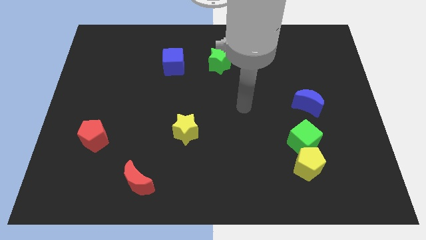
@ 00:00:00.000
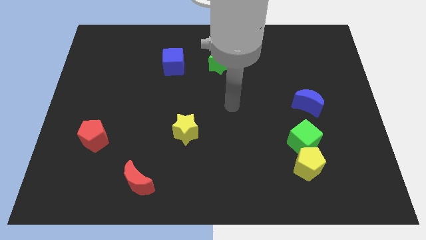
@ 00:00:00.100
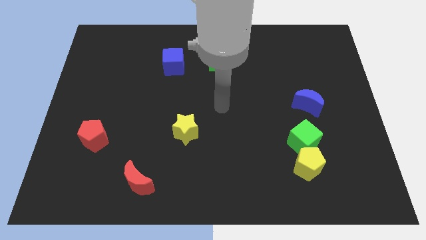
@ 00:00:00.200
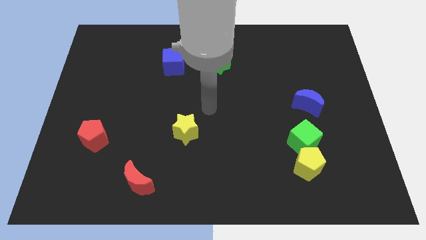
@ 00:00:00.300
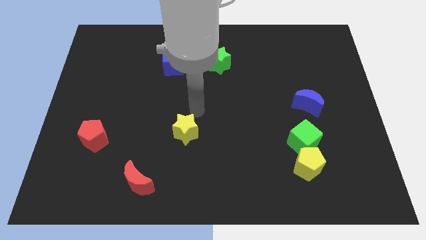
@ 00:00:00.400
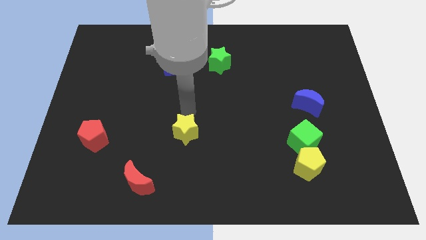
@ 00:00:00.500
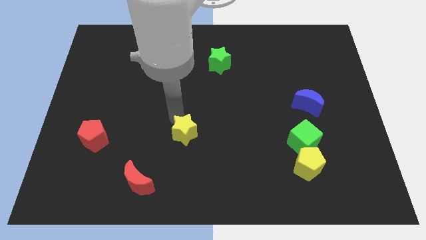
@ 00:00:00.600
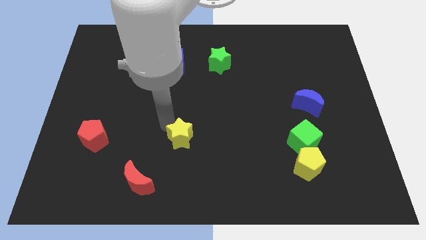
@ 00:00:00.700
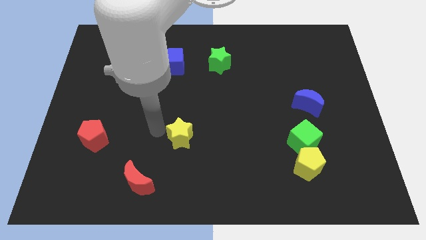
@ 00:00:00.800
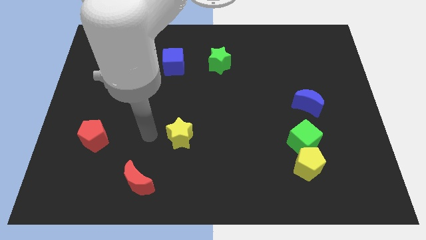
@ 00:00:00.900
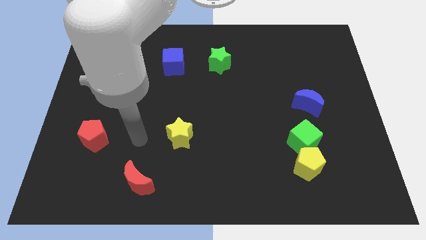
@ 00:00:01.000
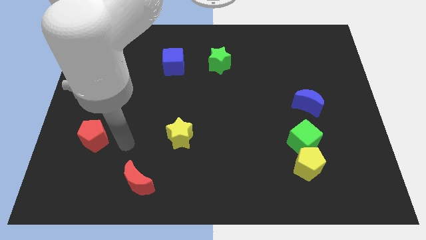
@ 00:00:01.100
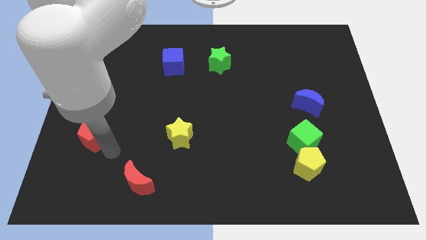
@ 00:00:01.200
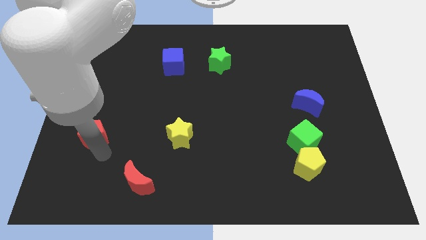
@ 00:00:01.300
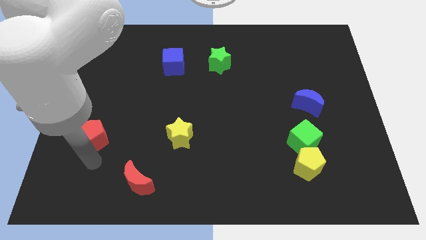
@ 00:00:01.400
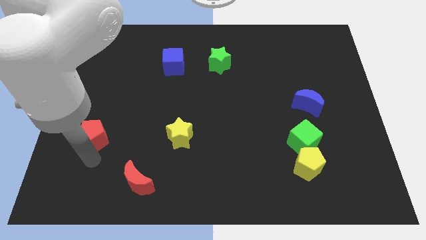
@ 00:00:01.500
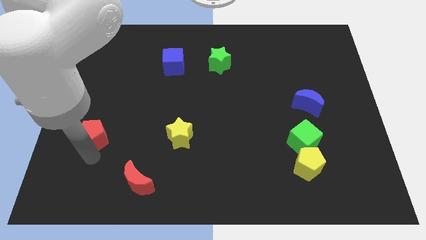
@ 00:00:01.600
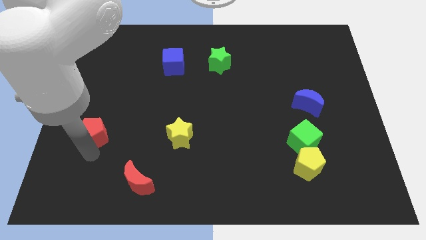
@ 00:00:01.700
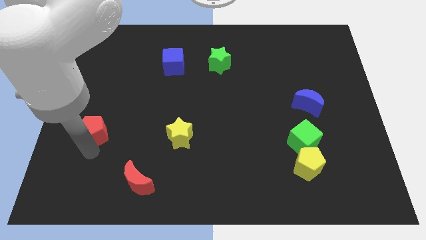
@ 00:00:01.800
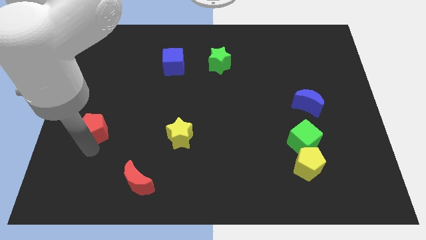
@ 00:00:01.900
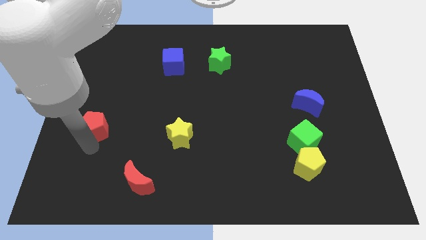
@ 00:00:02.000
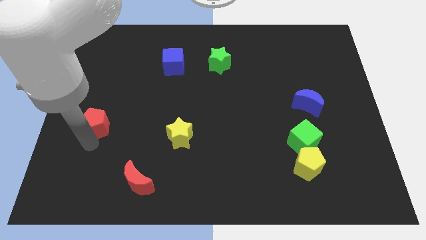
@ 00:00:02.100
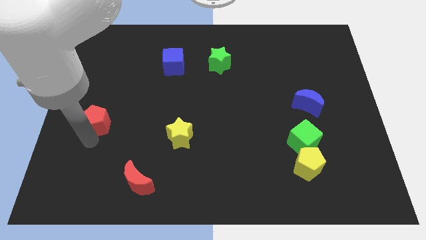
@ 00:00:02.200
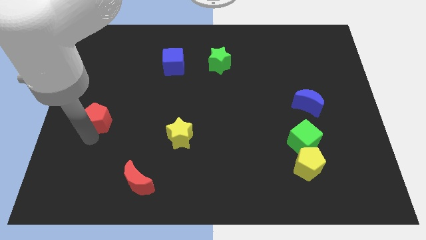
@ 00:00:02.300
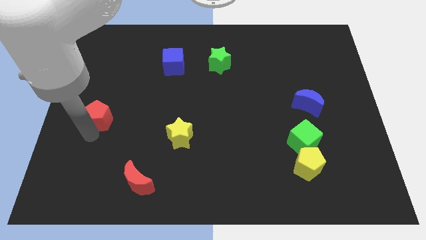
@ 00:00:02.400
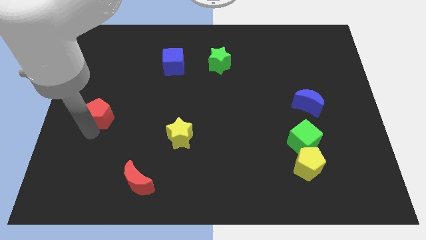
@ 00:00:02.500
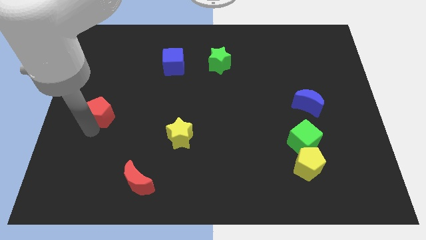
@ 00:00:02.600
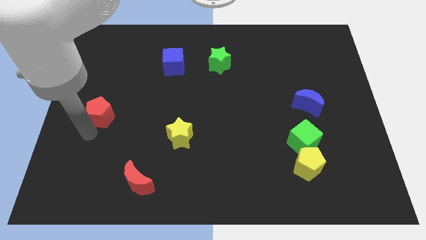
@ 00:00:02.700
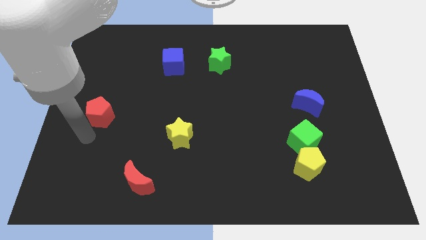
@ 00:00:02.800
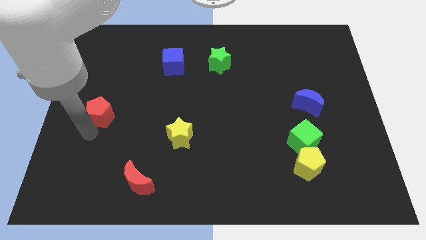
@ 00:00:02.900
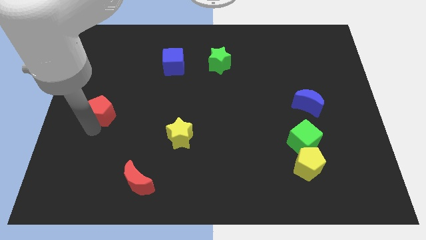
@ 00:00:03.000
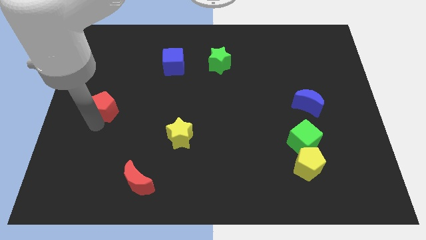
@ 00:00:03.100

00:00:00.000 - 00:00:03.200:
push the red pentagon upwards slightly

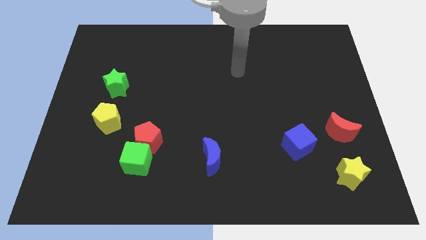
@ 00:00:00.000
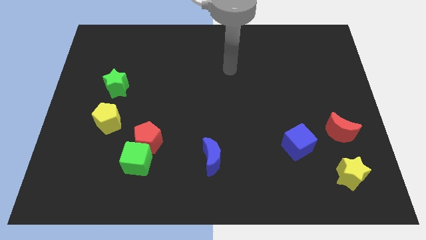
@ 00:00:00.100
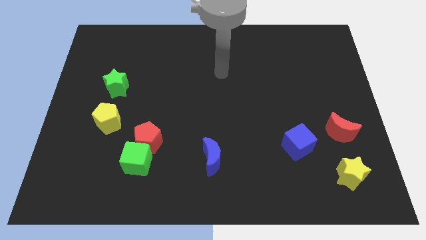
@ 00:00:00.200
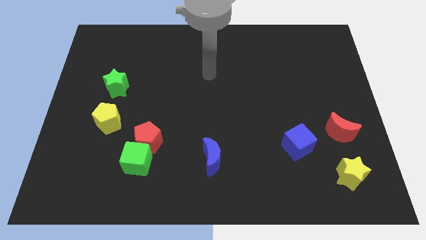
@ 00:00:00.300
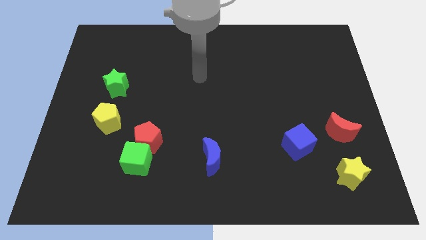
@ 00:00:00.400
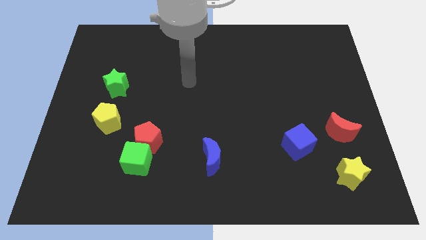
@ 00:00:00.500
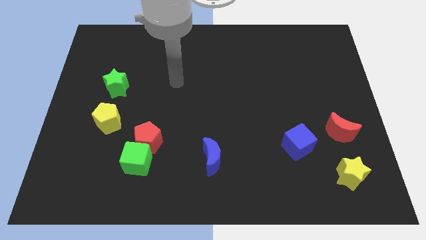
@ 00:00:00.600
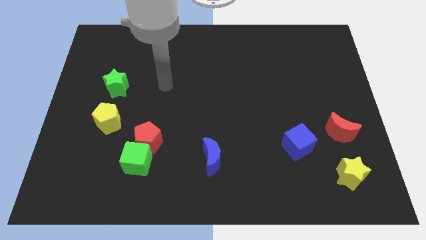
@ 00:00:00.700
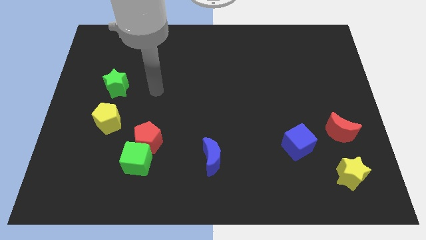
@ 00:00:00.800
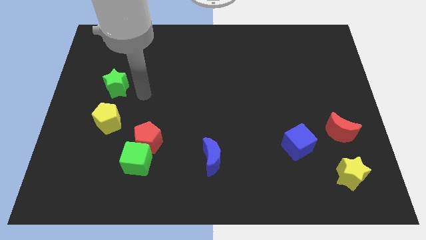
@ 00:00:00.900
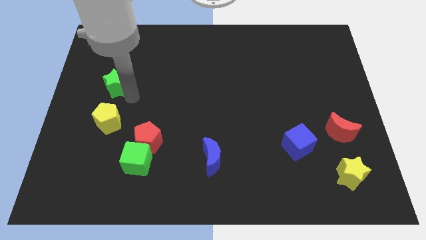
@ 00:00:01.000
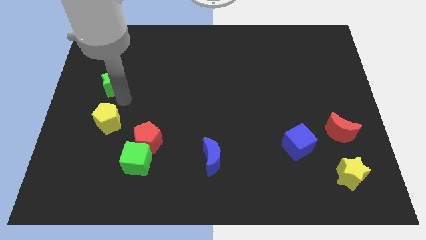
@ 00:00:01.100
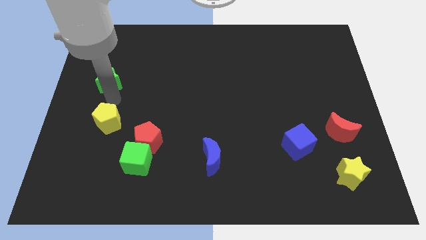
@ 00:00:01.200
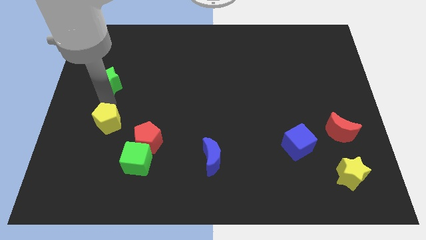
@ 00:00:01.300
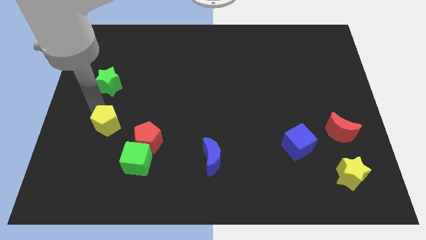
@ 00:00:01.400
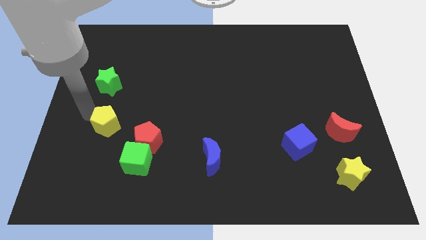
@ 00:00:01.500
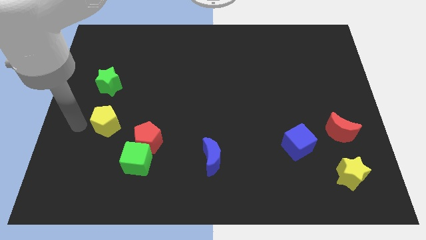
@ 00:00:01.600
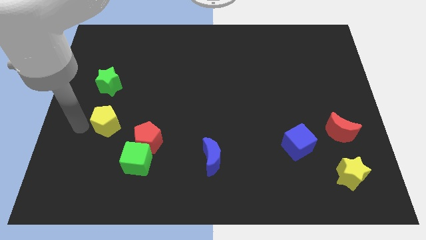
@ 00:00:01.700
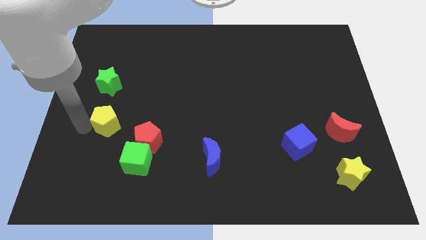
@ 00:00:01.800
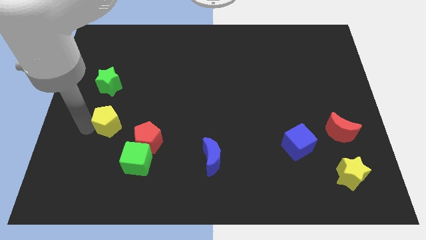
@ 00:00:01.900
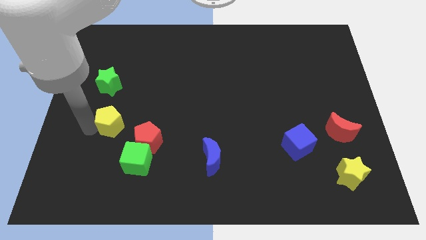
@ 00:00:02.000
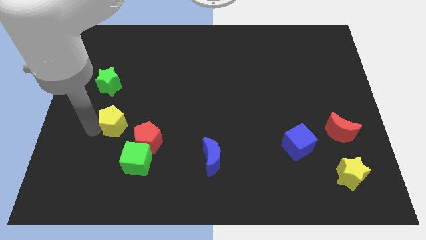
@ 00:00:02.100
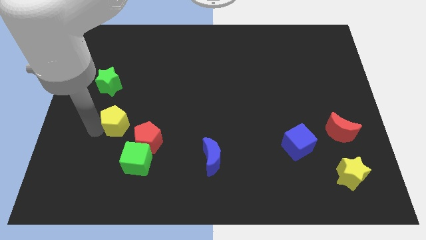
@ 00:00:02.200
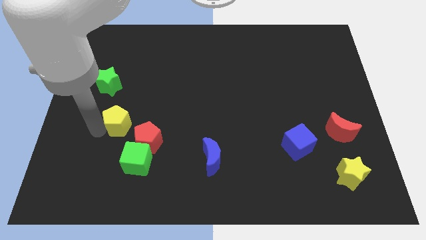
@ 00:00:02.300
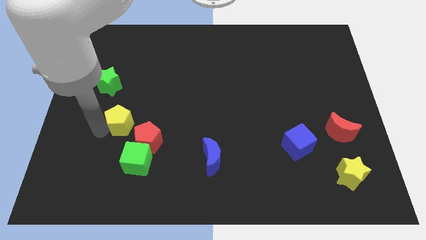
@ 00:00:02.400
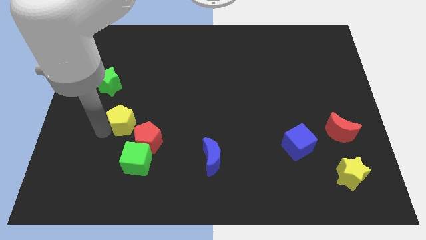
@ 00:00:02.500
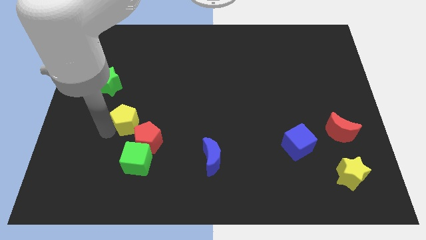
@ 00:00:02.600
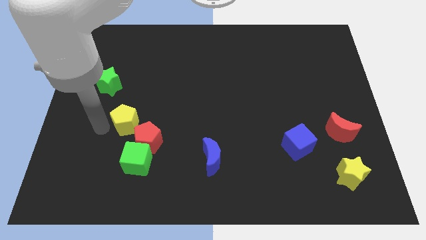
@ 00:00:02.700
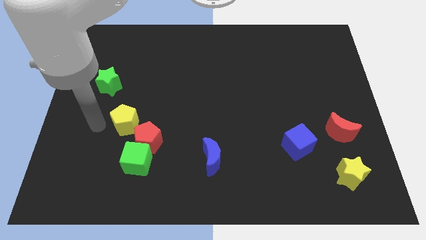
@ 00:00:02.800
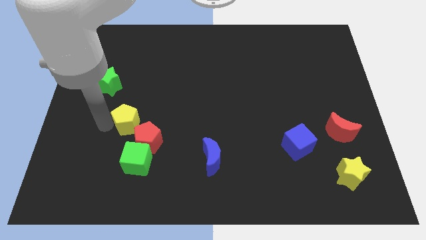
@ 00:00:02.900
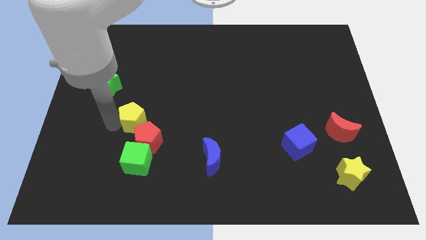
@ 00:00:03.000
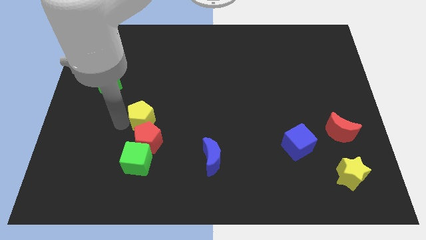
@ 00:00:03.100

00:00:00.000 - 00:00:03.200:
slightly slide the yellow pentagon to the right

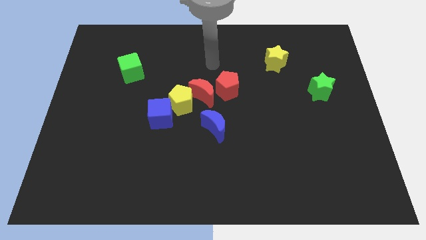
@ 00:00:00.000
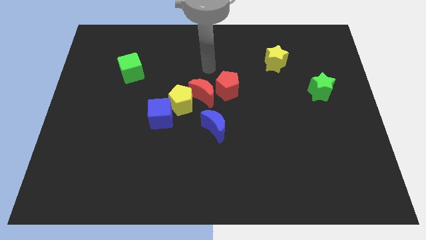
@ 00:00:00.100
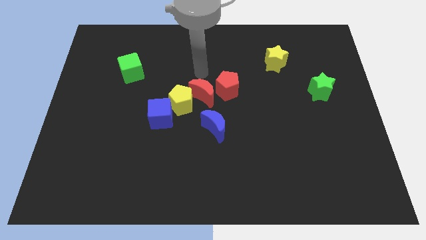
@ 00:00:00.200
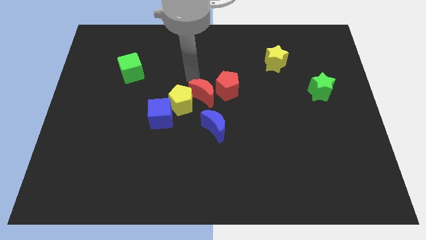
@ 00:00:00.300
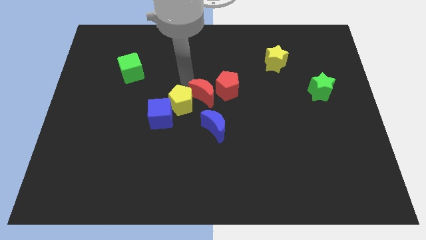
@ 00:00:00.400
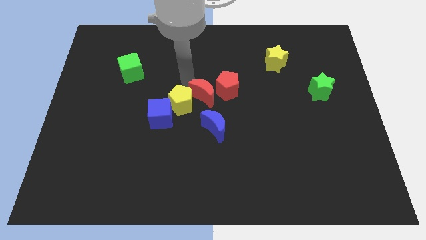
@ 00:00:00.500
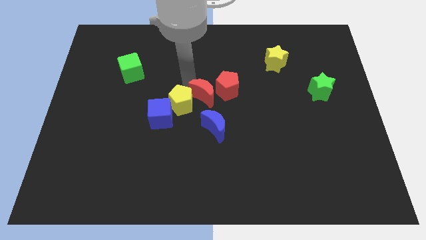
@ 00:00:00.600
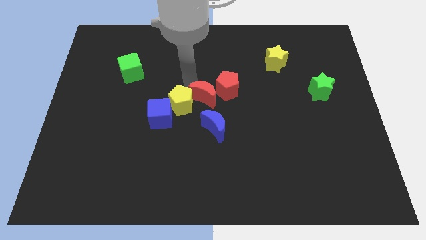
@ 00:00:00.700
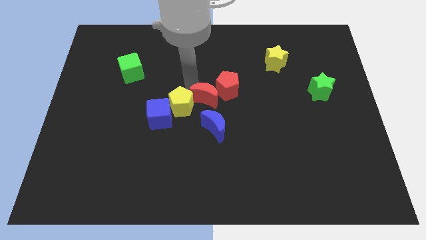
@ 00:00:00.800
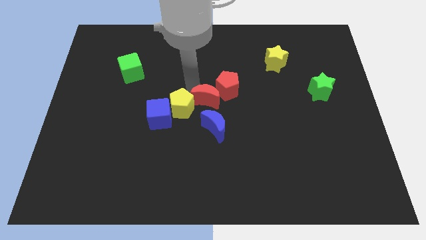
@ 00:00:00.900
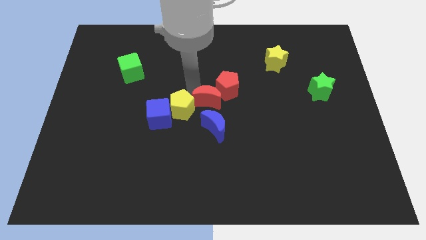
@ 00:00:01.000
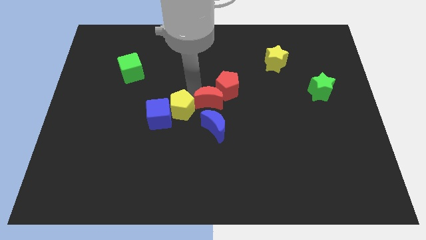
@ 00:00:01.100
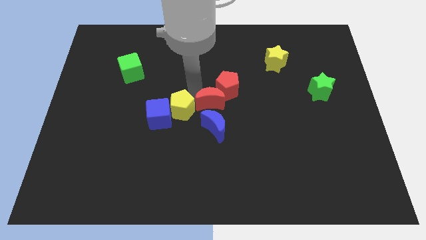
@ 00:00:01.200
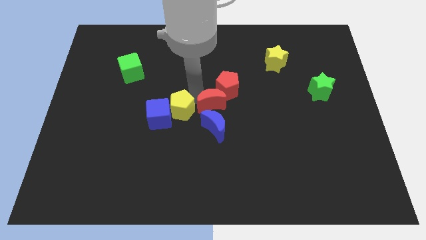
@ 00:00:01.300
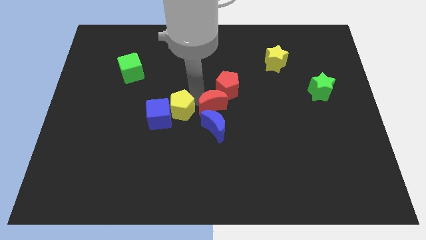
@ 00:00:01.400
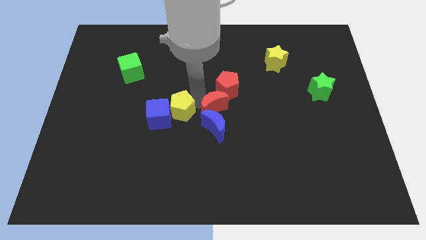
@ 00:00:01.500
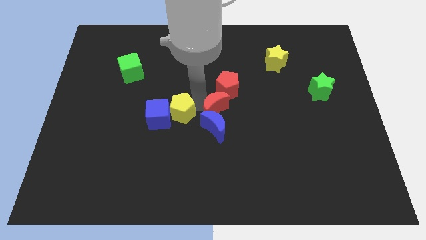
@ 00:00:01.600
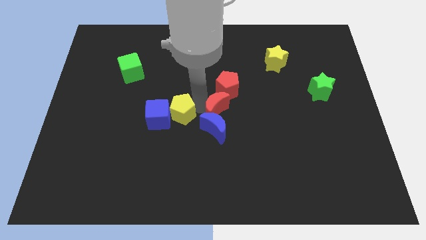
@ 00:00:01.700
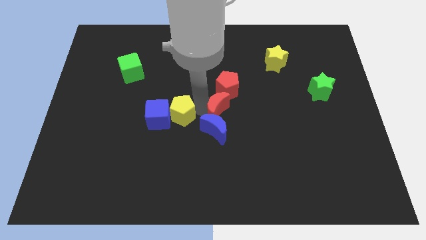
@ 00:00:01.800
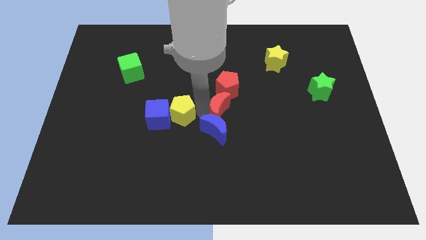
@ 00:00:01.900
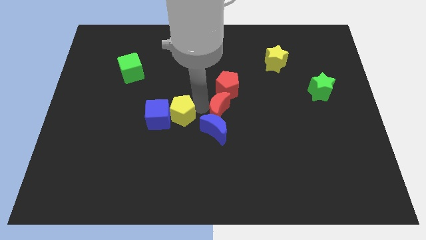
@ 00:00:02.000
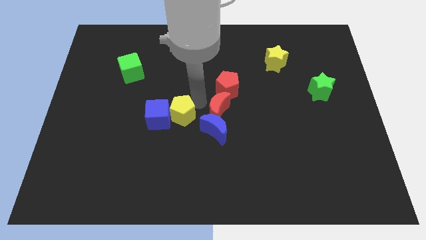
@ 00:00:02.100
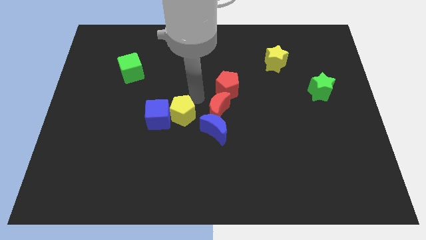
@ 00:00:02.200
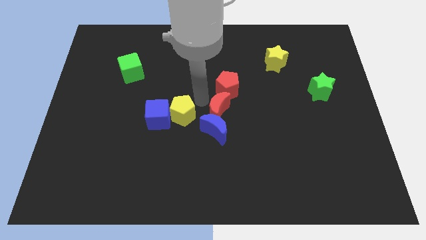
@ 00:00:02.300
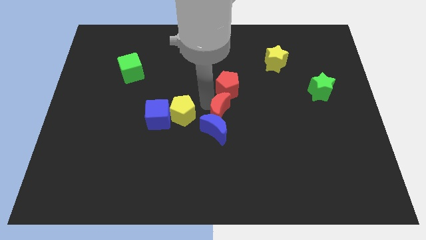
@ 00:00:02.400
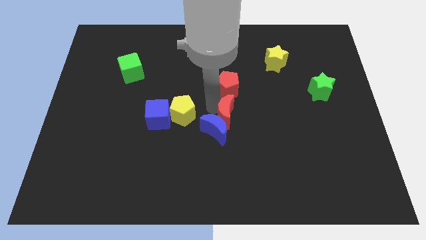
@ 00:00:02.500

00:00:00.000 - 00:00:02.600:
slide the red moon down and then to the right a bit
